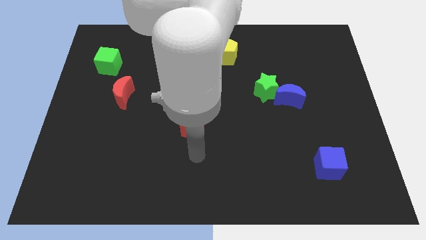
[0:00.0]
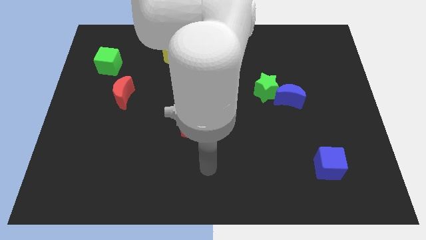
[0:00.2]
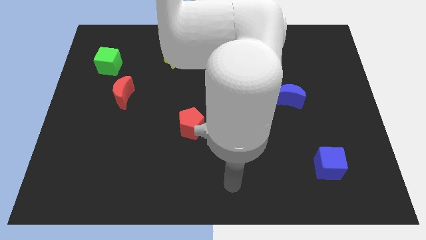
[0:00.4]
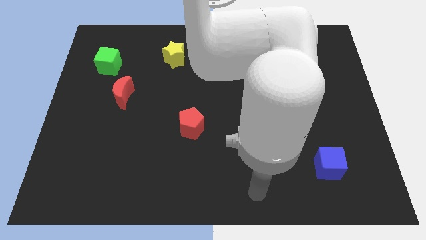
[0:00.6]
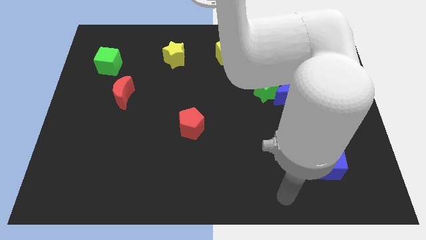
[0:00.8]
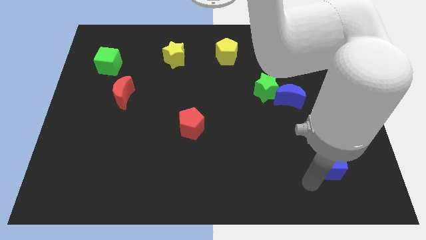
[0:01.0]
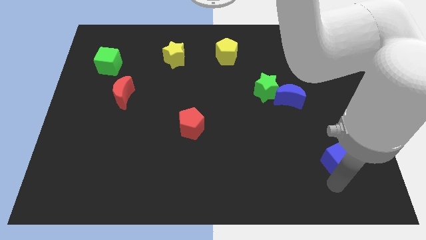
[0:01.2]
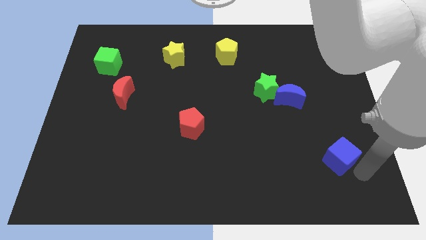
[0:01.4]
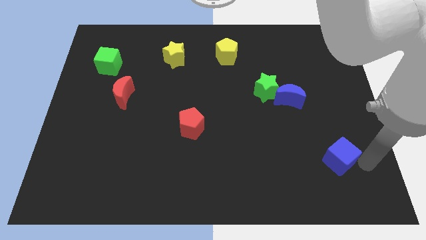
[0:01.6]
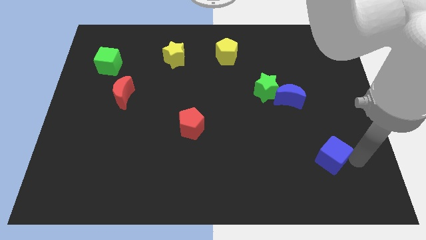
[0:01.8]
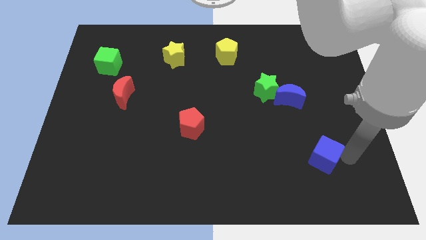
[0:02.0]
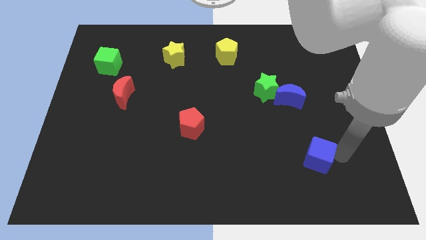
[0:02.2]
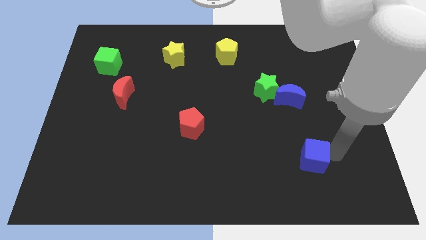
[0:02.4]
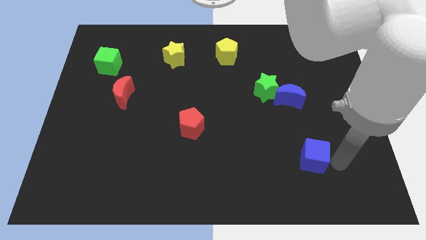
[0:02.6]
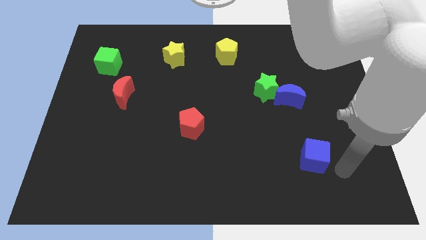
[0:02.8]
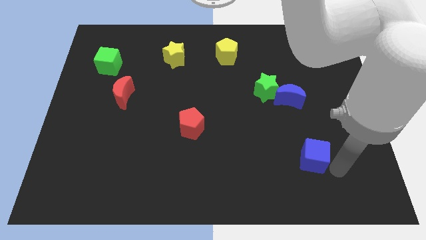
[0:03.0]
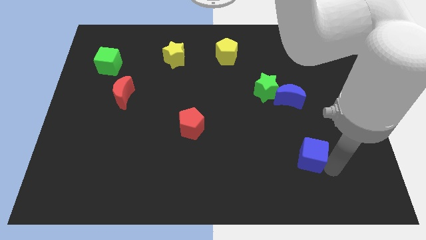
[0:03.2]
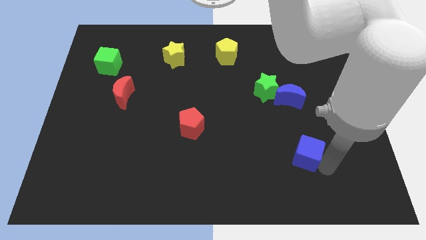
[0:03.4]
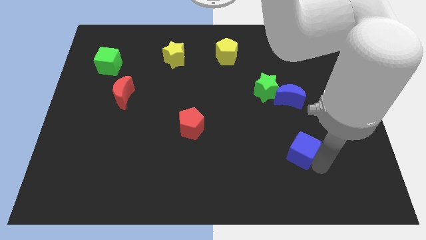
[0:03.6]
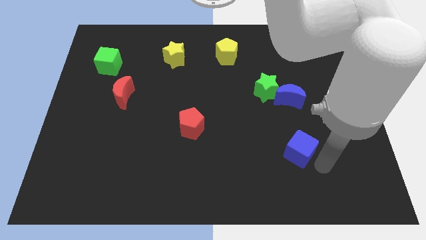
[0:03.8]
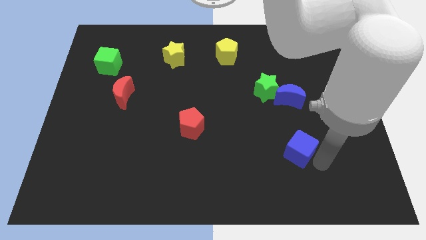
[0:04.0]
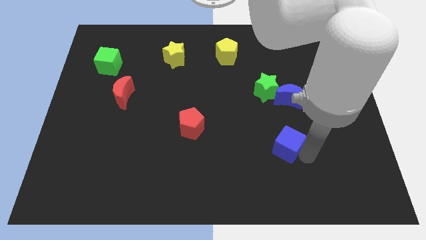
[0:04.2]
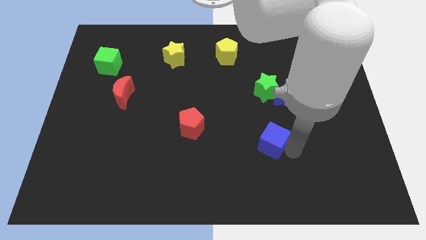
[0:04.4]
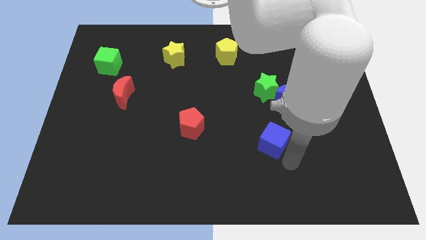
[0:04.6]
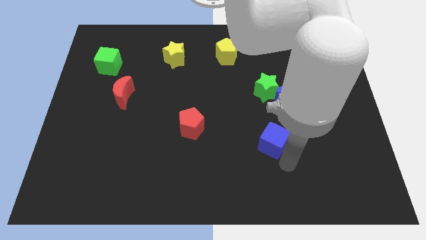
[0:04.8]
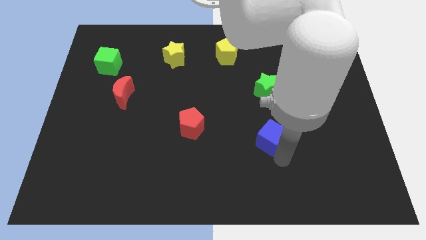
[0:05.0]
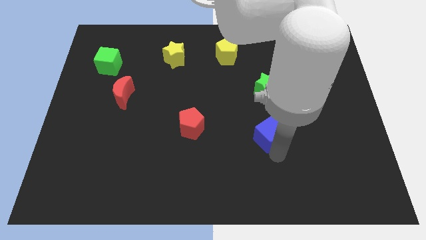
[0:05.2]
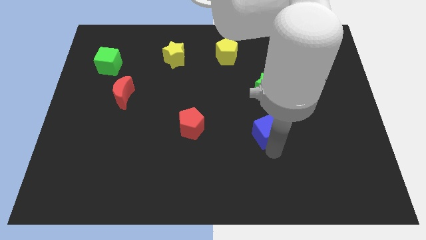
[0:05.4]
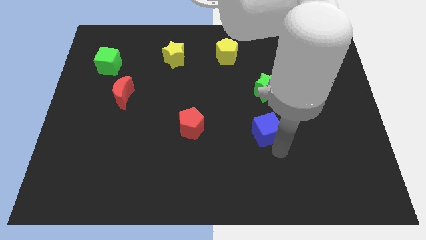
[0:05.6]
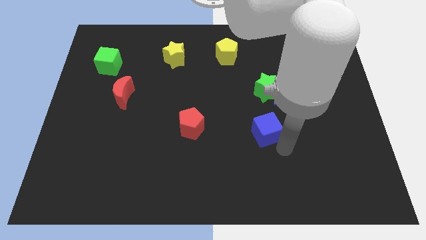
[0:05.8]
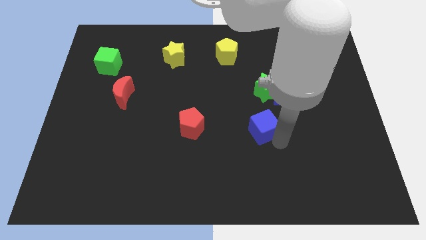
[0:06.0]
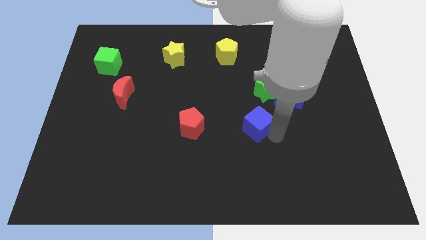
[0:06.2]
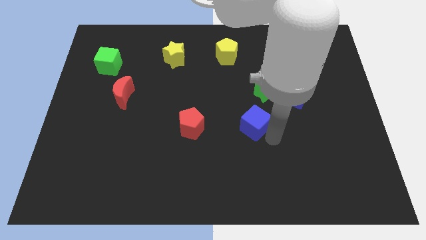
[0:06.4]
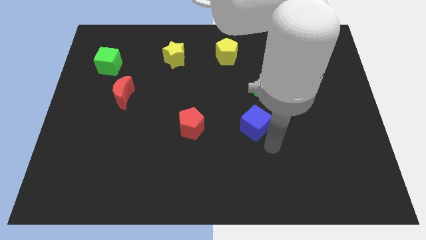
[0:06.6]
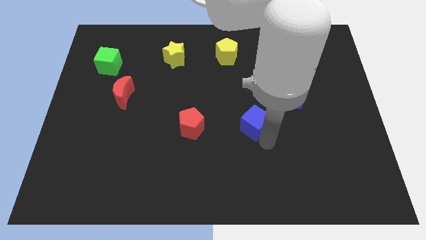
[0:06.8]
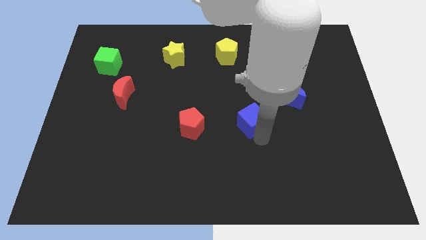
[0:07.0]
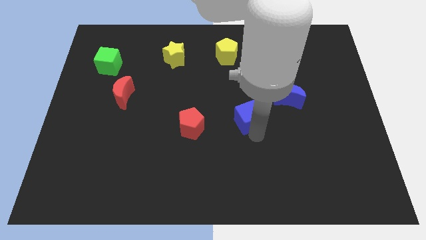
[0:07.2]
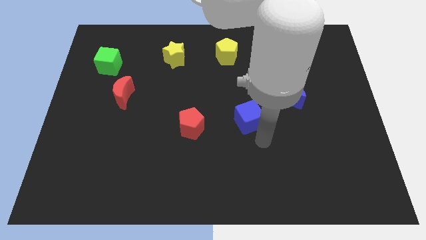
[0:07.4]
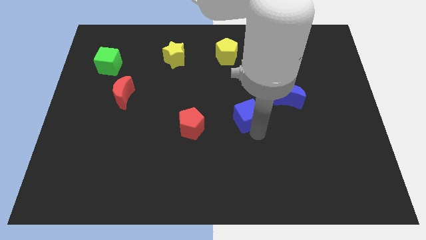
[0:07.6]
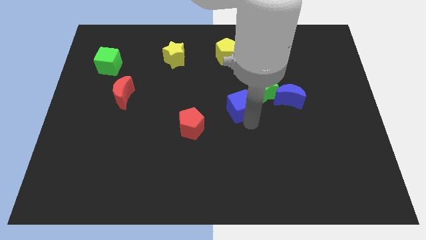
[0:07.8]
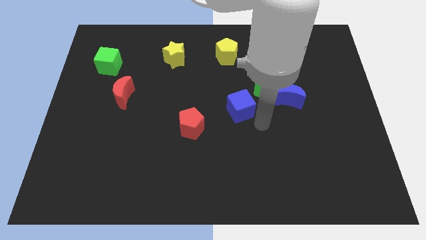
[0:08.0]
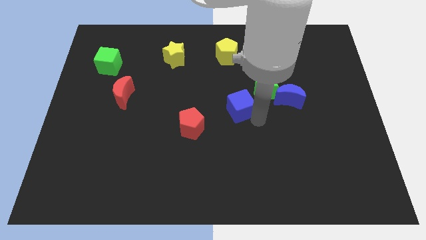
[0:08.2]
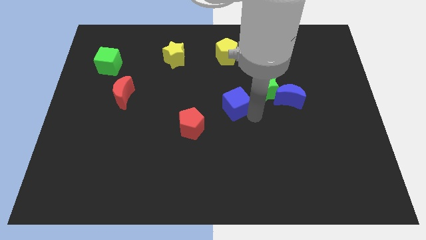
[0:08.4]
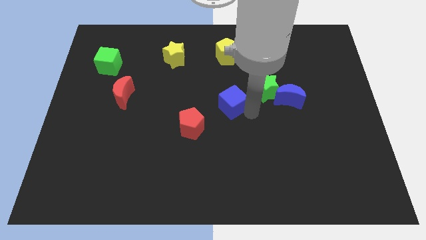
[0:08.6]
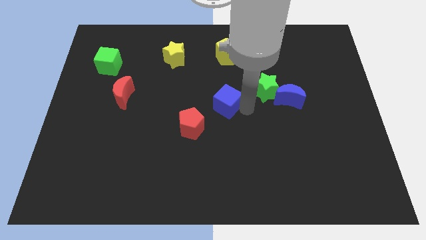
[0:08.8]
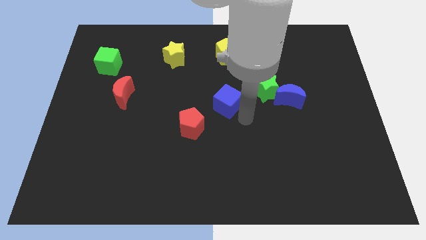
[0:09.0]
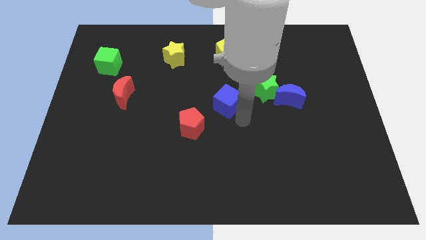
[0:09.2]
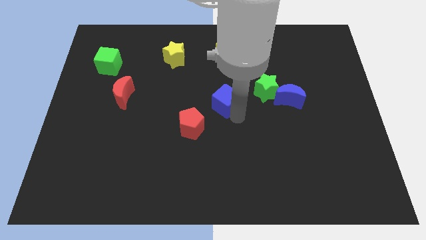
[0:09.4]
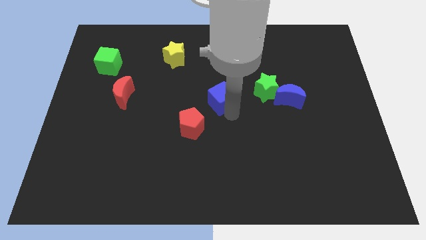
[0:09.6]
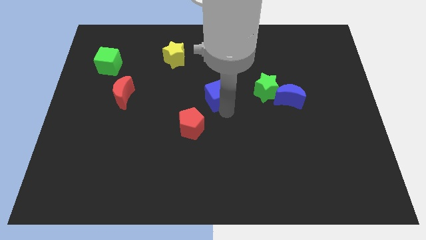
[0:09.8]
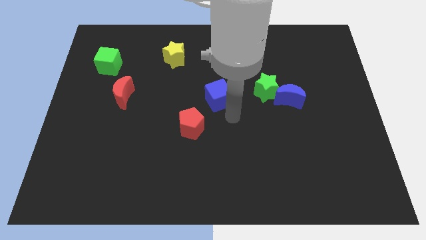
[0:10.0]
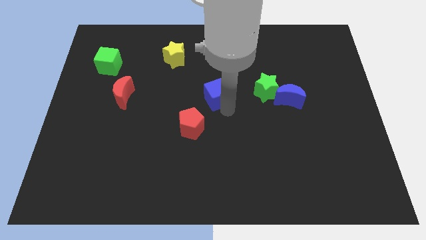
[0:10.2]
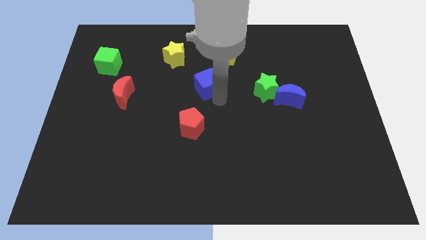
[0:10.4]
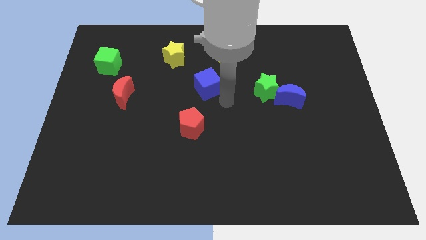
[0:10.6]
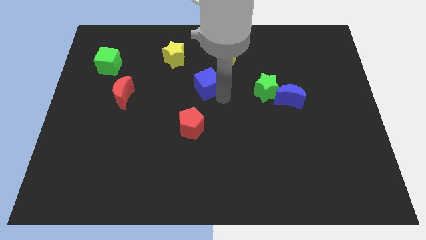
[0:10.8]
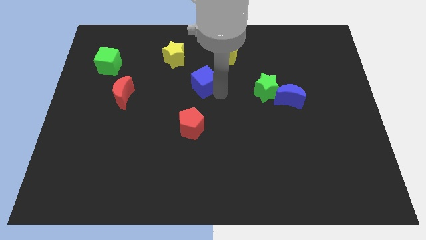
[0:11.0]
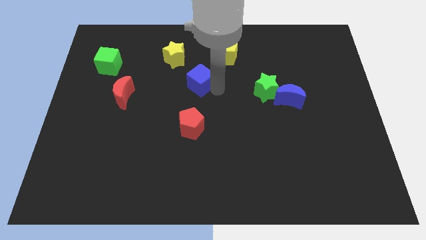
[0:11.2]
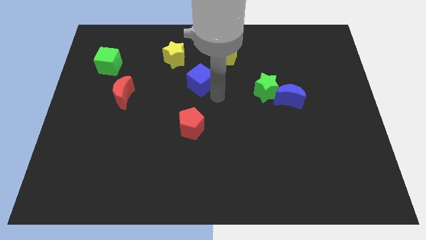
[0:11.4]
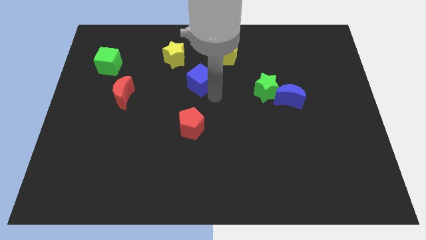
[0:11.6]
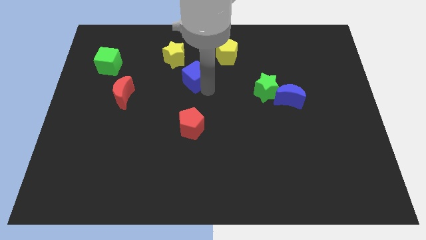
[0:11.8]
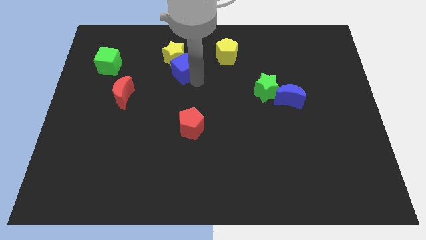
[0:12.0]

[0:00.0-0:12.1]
slide the blue cube next to the yellow star

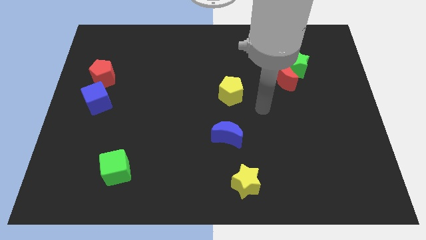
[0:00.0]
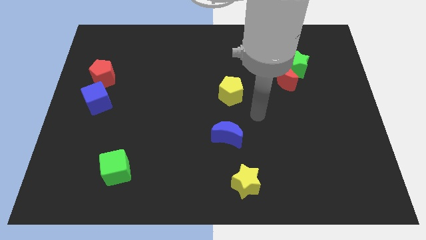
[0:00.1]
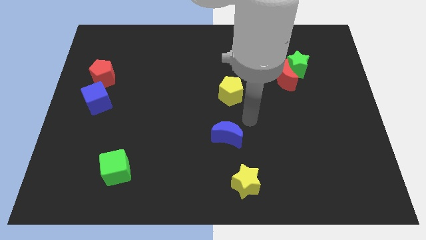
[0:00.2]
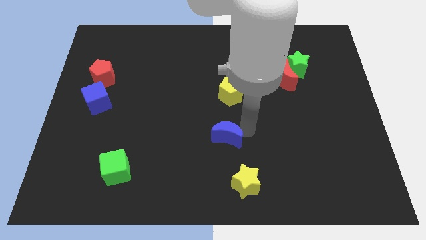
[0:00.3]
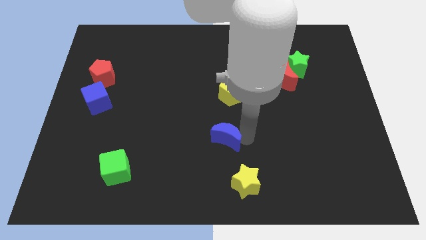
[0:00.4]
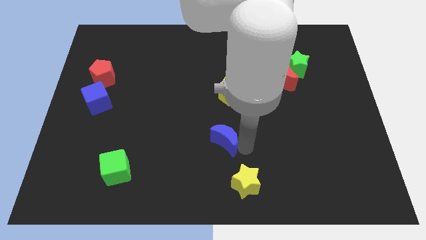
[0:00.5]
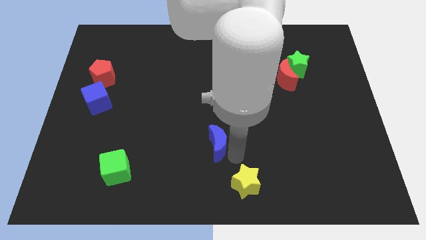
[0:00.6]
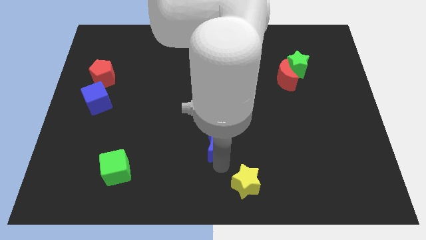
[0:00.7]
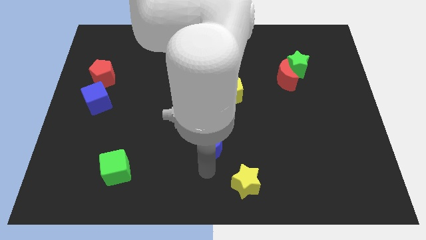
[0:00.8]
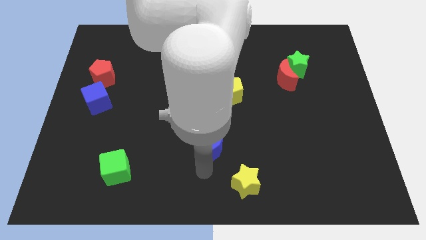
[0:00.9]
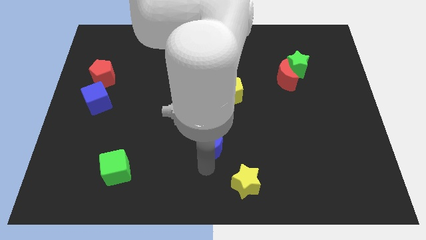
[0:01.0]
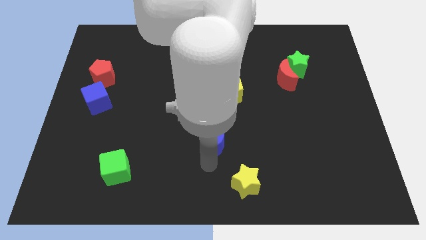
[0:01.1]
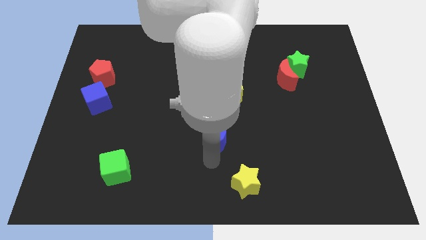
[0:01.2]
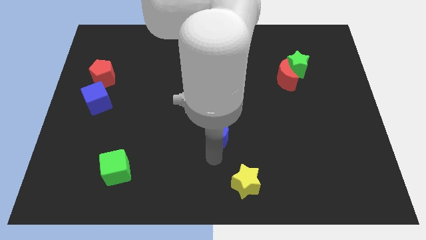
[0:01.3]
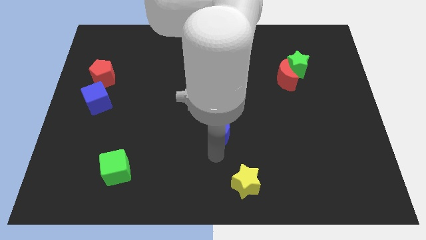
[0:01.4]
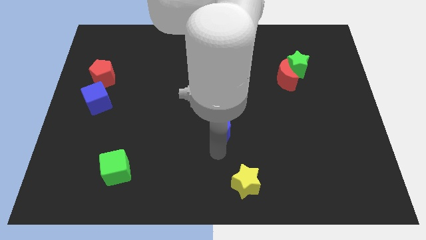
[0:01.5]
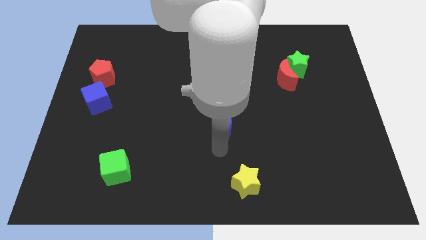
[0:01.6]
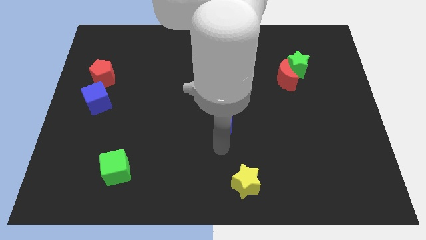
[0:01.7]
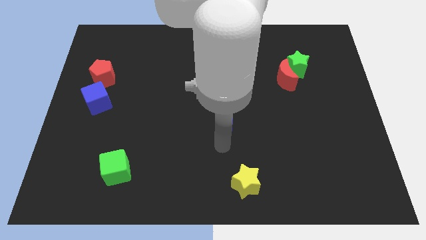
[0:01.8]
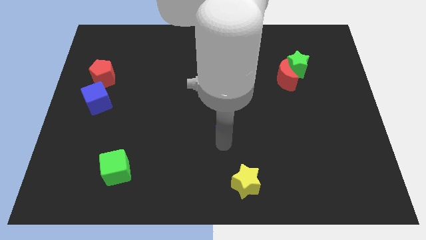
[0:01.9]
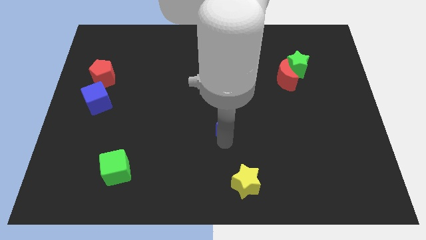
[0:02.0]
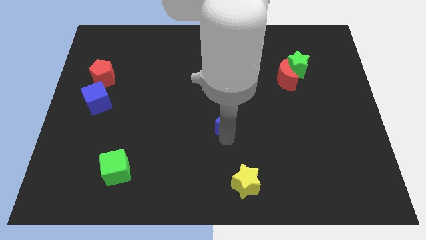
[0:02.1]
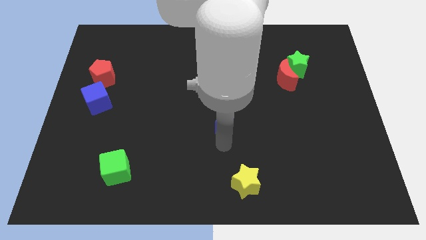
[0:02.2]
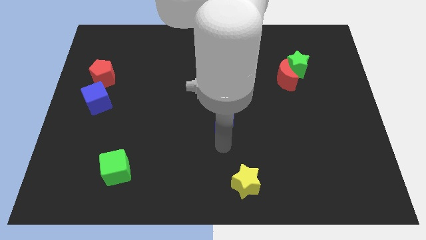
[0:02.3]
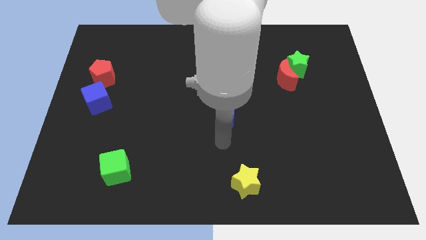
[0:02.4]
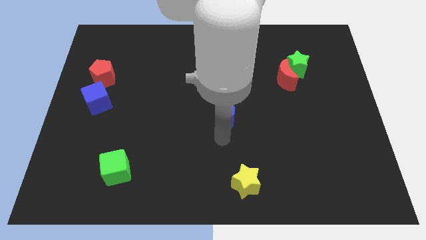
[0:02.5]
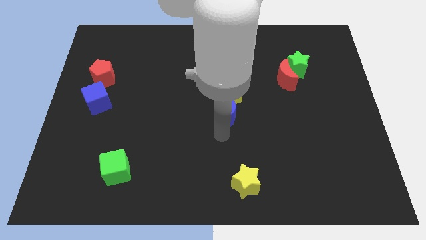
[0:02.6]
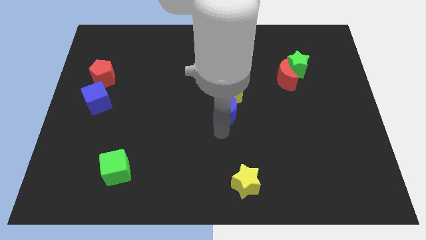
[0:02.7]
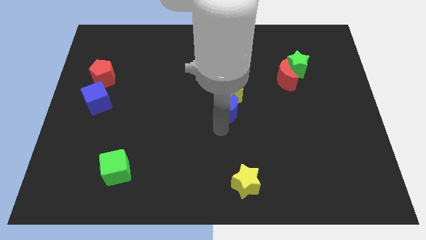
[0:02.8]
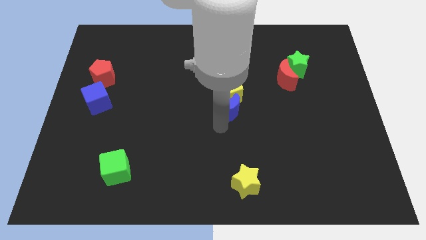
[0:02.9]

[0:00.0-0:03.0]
move the blue moon close to the yellow pentagon
